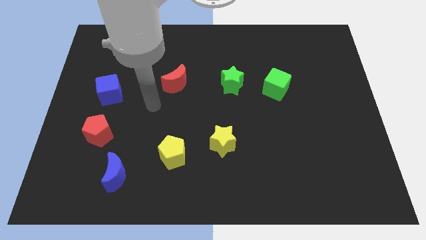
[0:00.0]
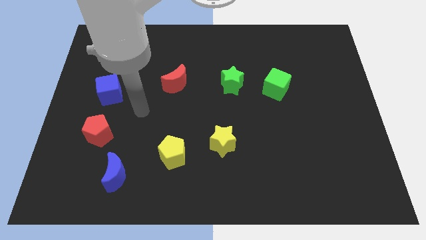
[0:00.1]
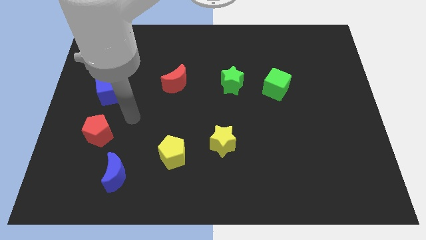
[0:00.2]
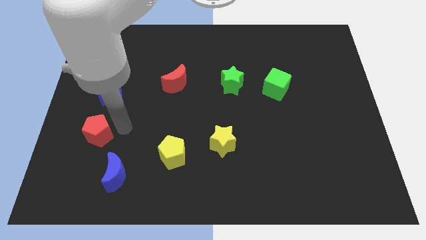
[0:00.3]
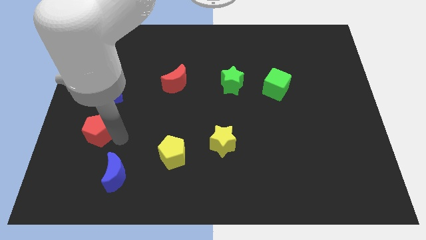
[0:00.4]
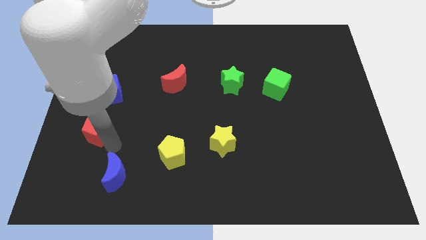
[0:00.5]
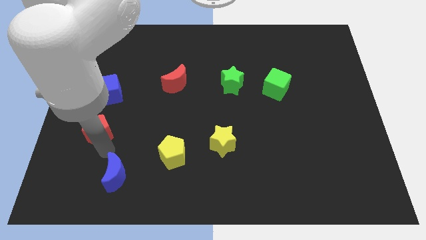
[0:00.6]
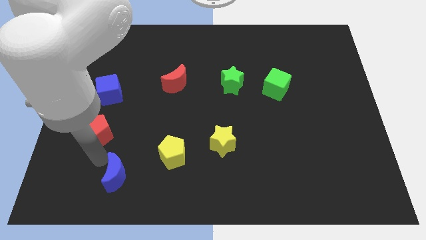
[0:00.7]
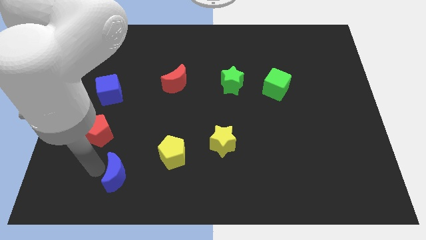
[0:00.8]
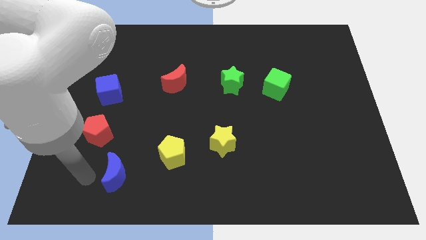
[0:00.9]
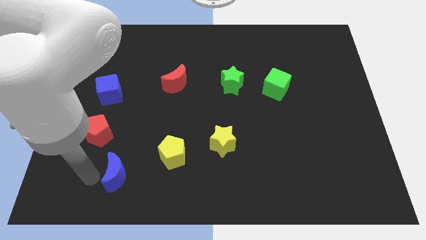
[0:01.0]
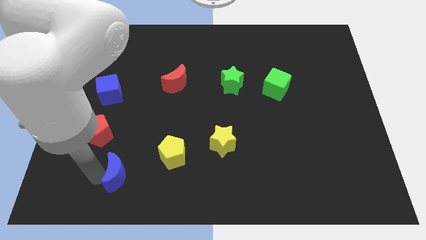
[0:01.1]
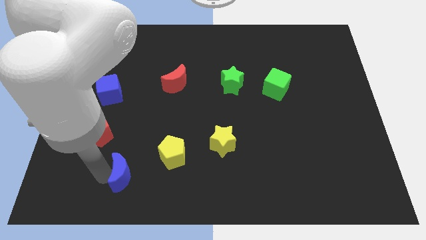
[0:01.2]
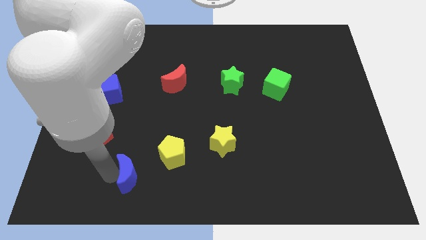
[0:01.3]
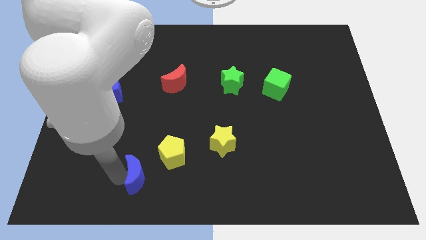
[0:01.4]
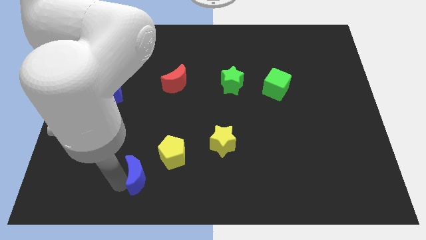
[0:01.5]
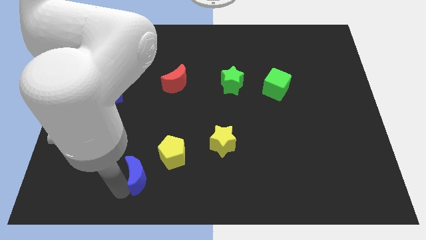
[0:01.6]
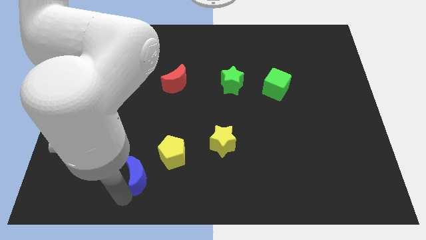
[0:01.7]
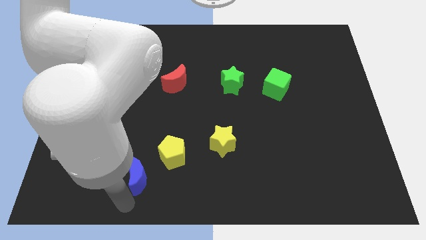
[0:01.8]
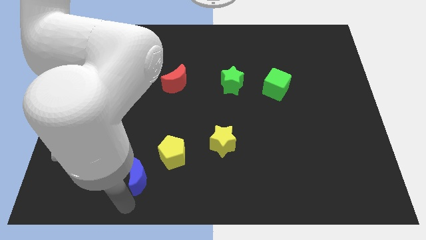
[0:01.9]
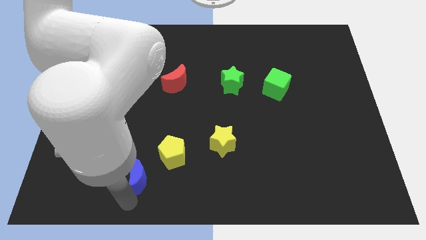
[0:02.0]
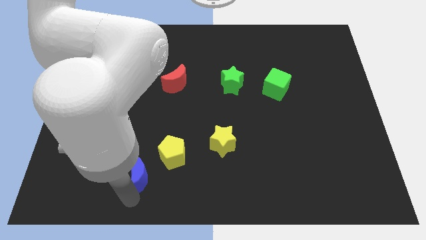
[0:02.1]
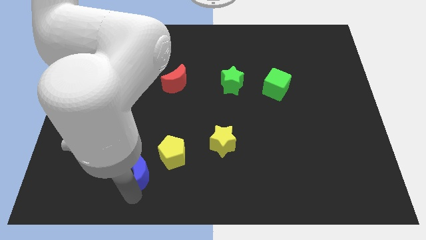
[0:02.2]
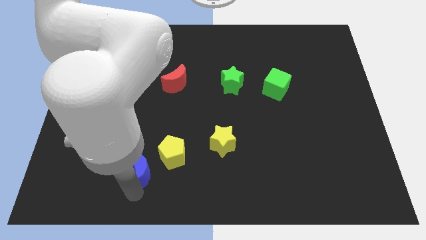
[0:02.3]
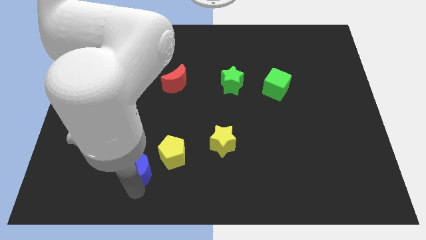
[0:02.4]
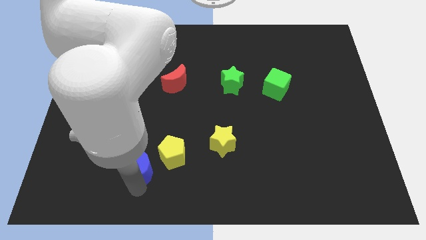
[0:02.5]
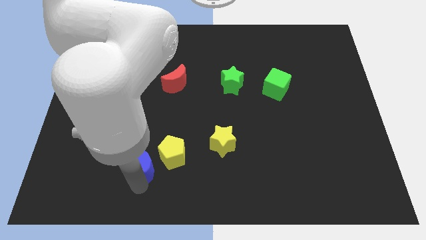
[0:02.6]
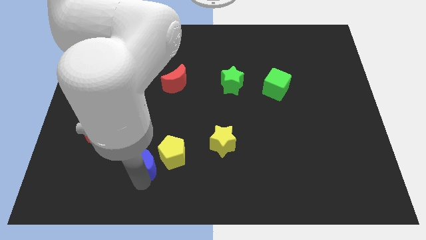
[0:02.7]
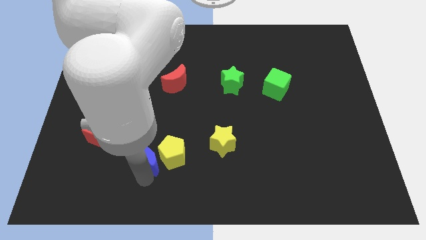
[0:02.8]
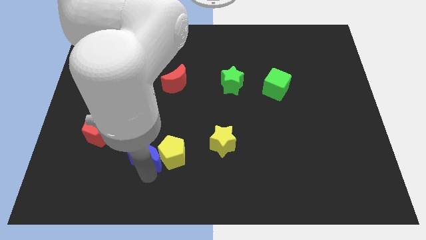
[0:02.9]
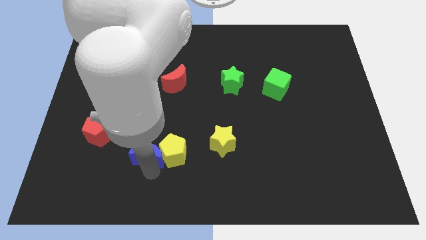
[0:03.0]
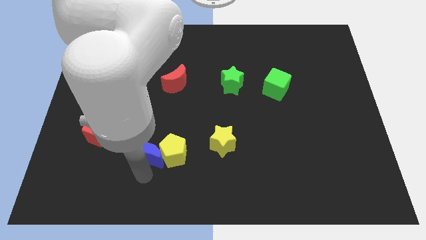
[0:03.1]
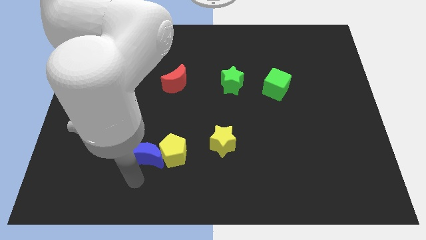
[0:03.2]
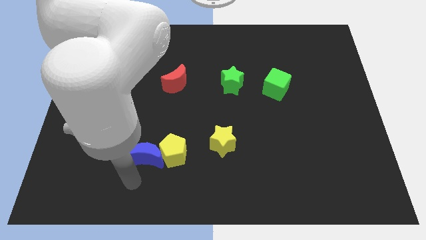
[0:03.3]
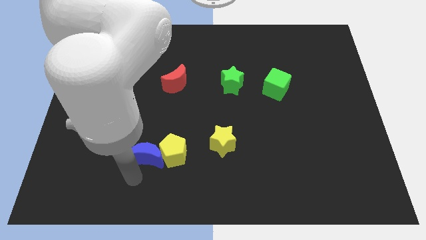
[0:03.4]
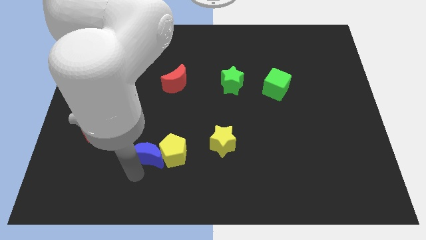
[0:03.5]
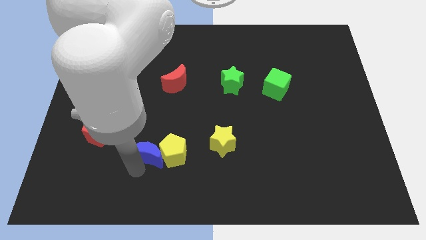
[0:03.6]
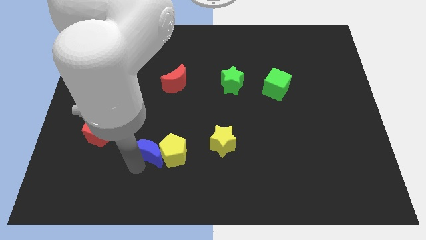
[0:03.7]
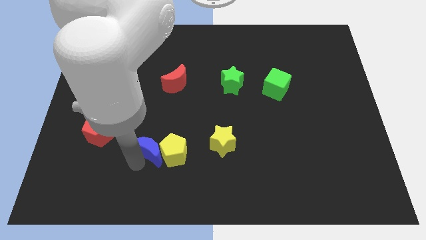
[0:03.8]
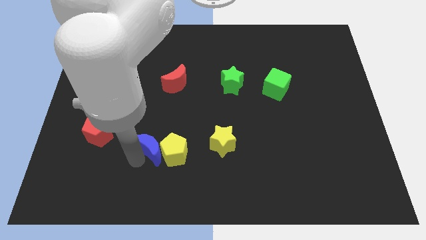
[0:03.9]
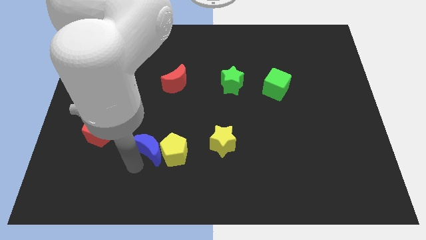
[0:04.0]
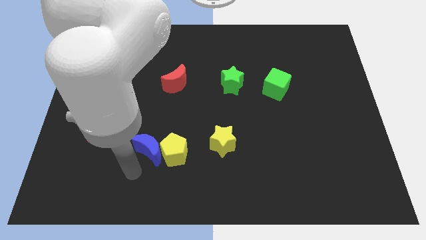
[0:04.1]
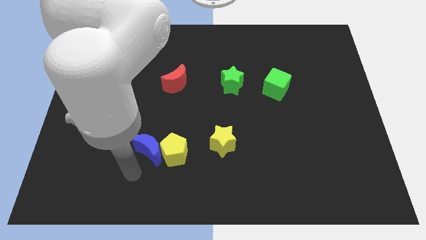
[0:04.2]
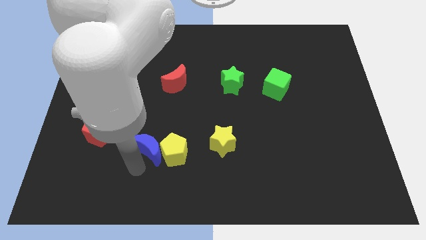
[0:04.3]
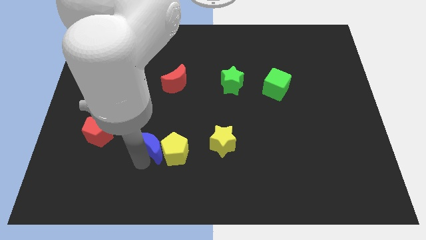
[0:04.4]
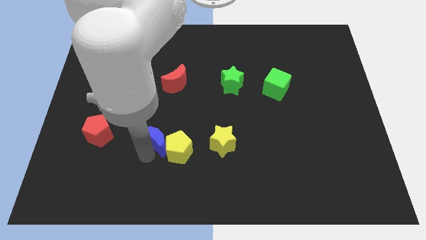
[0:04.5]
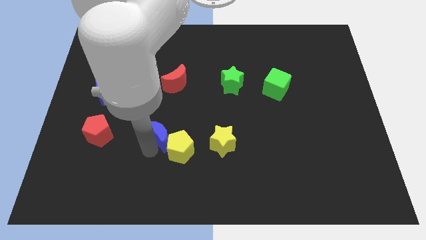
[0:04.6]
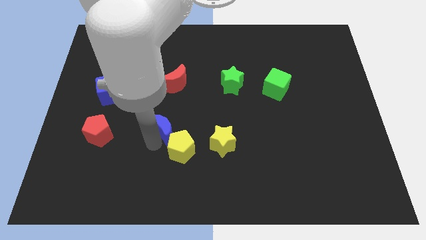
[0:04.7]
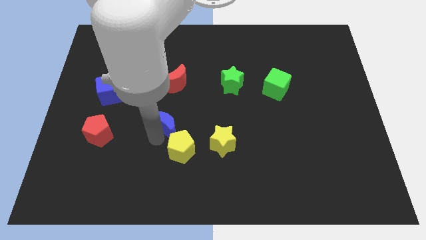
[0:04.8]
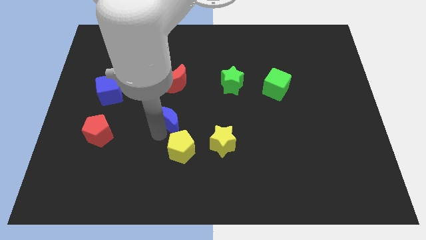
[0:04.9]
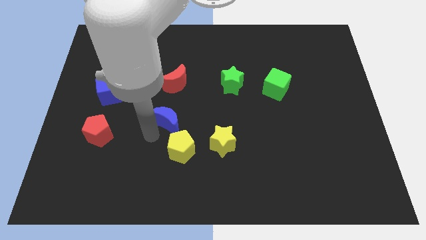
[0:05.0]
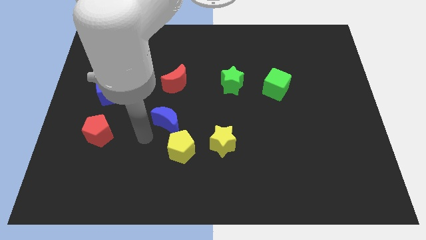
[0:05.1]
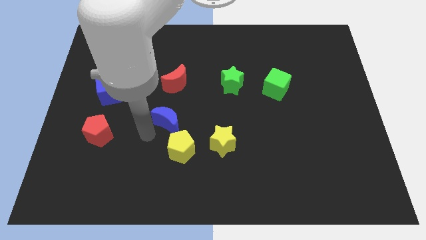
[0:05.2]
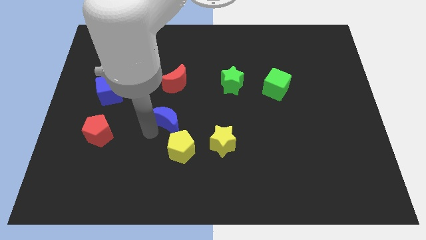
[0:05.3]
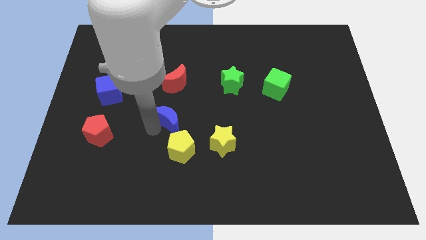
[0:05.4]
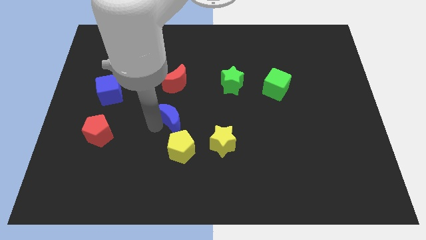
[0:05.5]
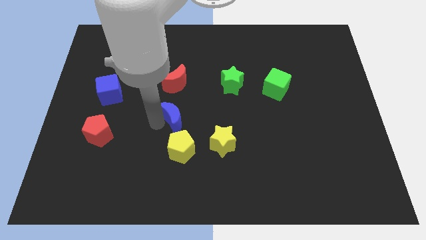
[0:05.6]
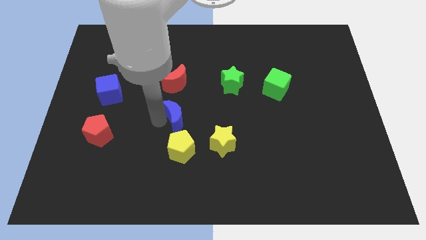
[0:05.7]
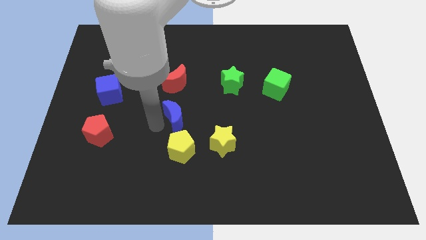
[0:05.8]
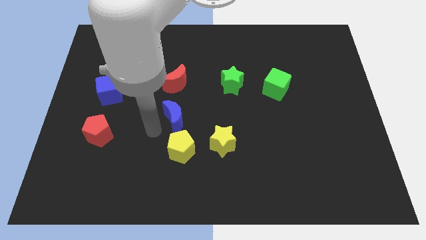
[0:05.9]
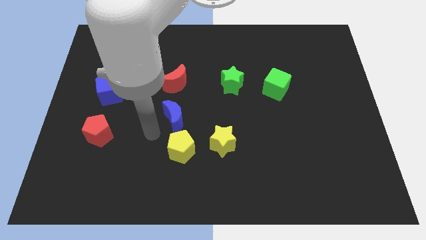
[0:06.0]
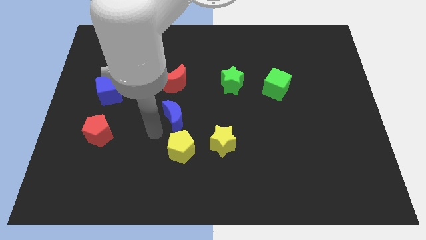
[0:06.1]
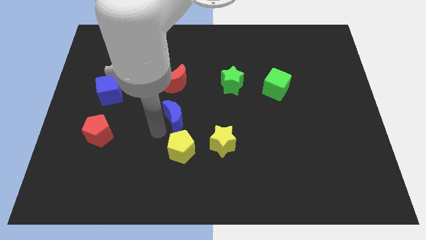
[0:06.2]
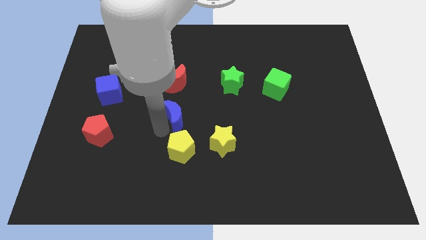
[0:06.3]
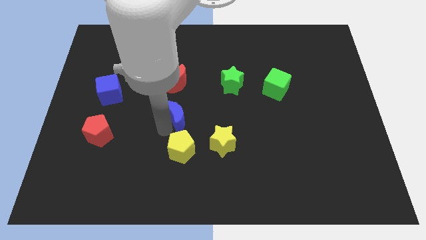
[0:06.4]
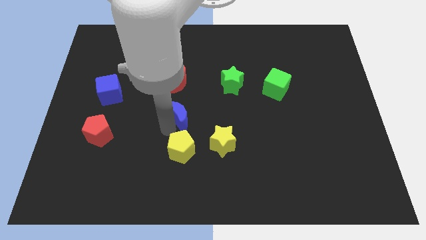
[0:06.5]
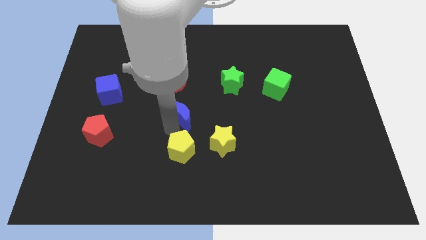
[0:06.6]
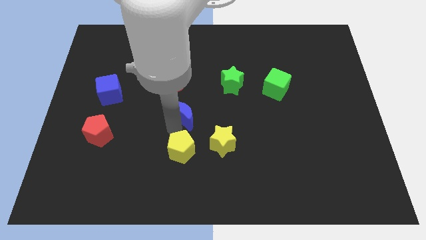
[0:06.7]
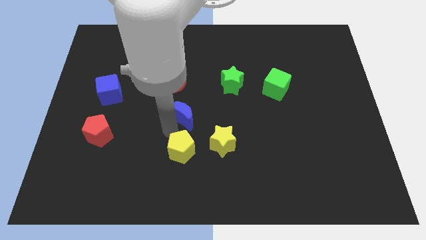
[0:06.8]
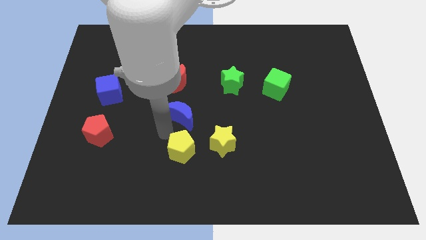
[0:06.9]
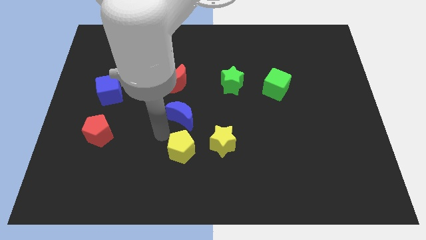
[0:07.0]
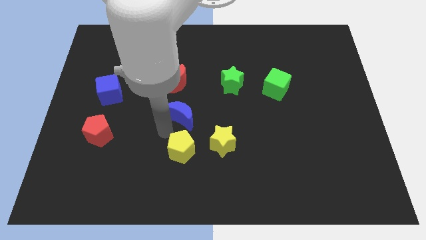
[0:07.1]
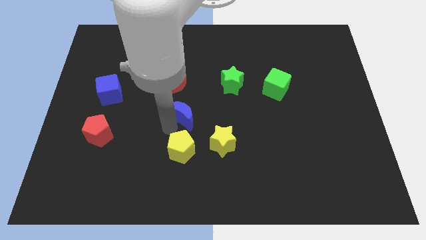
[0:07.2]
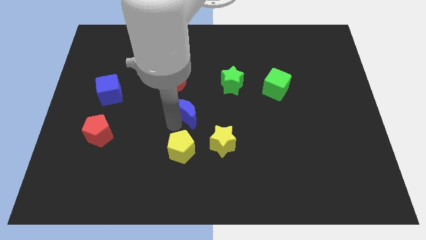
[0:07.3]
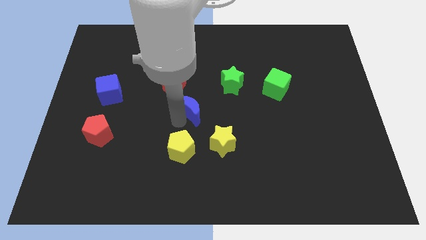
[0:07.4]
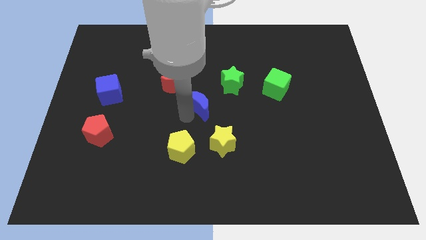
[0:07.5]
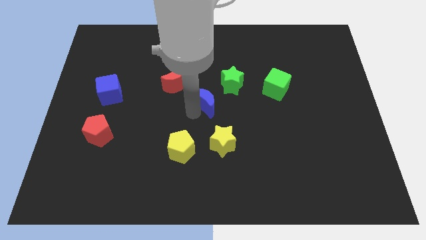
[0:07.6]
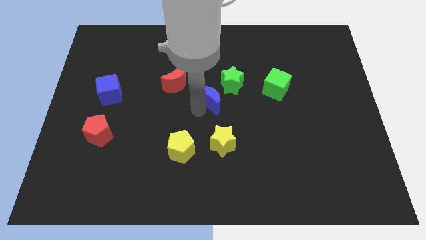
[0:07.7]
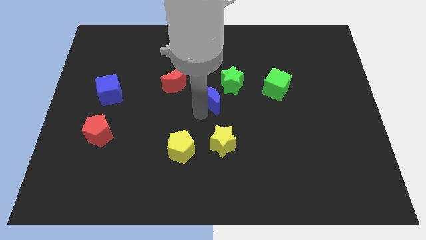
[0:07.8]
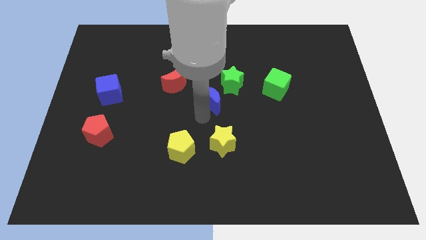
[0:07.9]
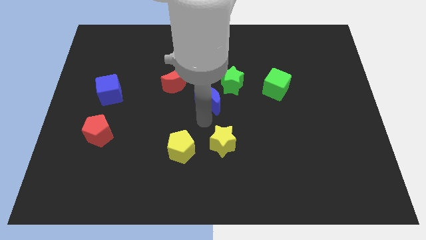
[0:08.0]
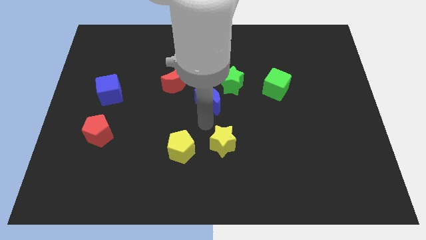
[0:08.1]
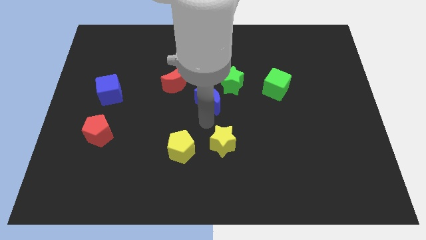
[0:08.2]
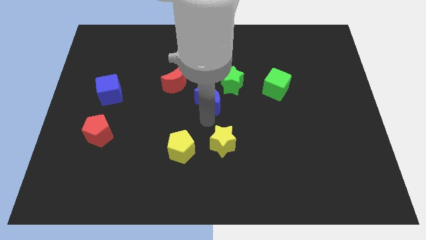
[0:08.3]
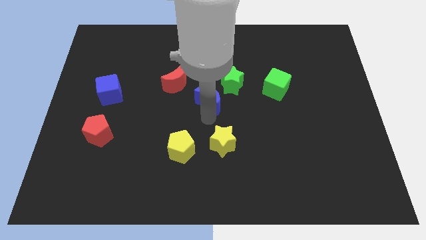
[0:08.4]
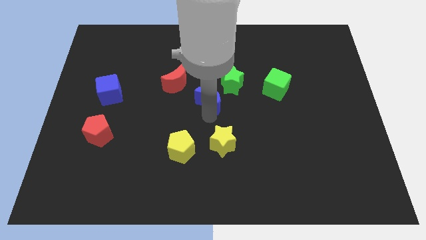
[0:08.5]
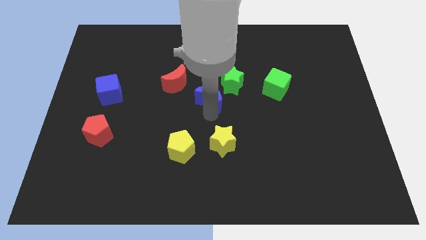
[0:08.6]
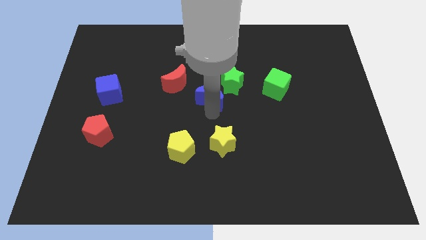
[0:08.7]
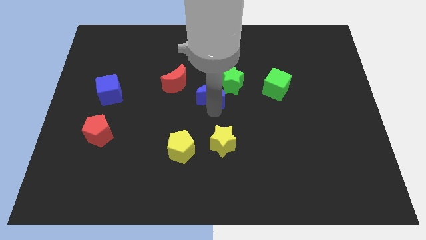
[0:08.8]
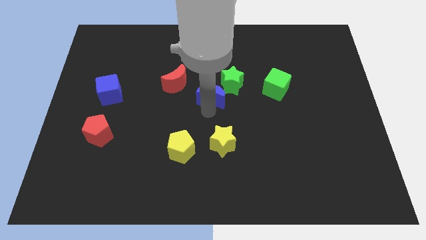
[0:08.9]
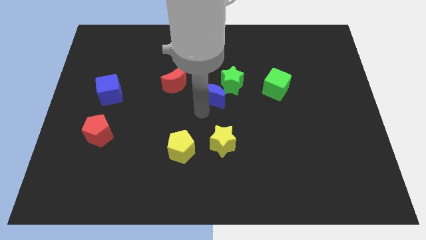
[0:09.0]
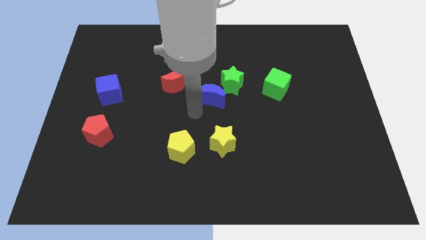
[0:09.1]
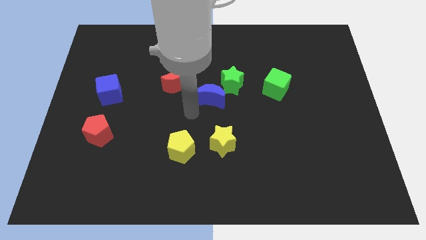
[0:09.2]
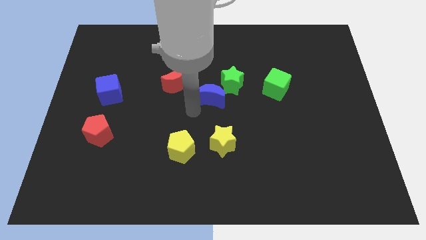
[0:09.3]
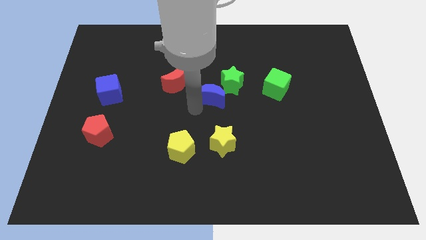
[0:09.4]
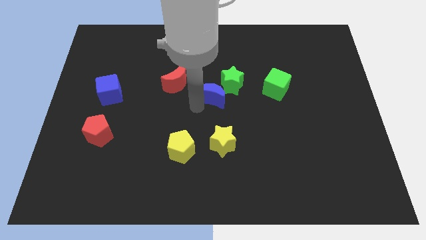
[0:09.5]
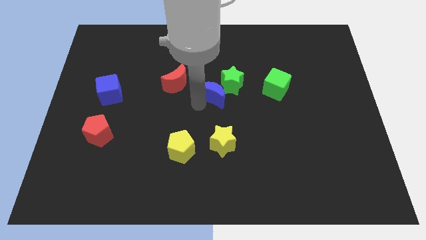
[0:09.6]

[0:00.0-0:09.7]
move the blue moon close to the green star
